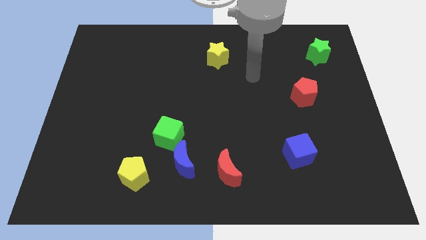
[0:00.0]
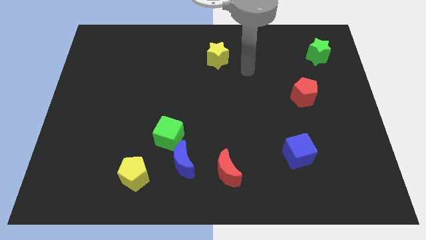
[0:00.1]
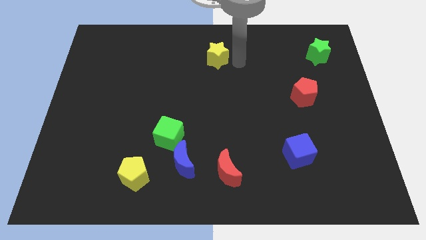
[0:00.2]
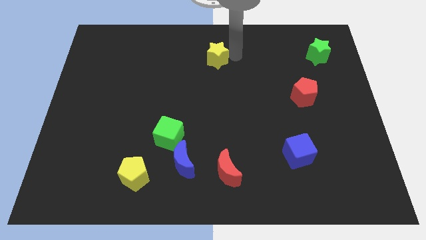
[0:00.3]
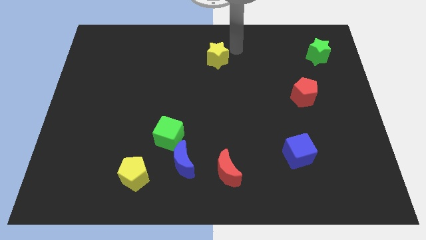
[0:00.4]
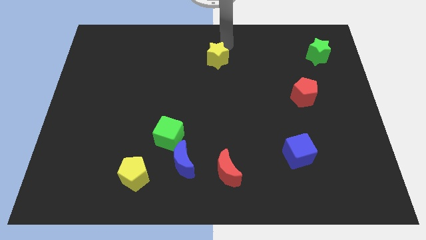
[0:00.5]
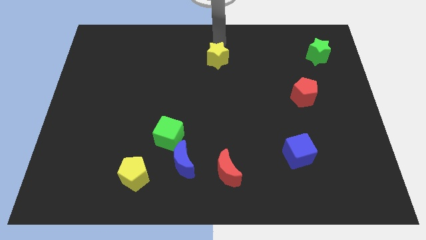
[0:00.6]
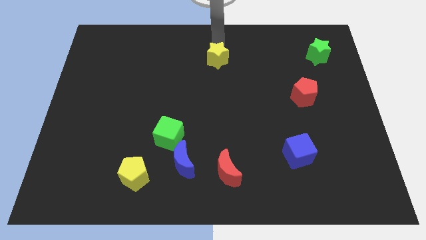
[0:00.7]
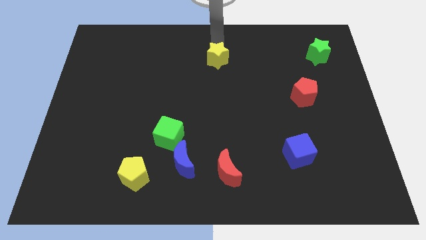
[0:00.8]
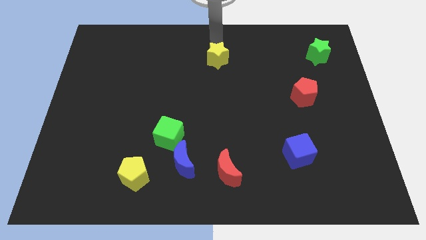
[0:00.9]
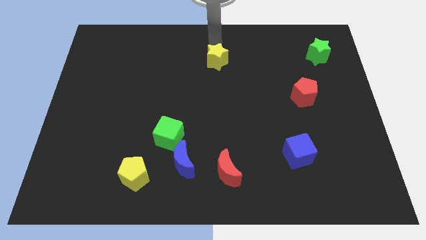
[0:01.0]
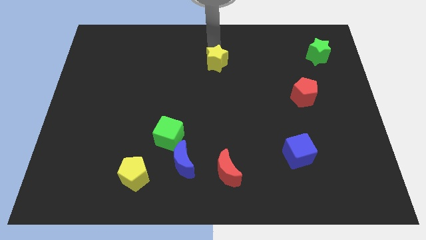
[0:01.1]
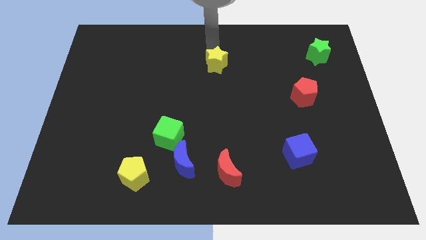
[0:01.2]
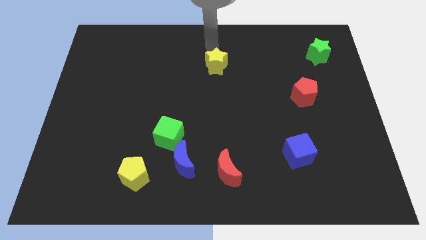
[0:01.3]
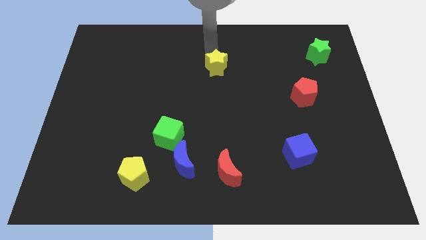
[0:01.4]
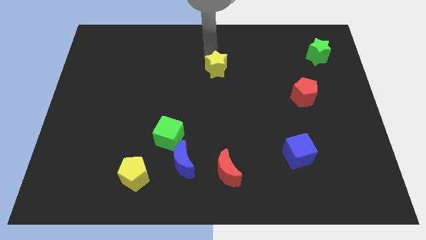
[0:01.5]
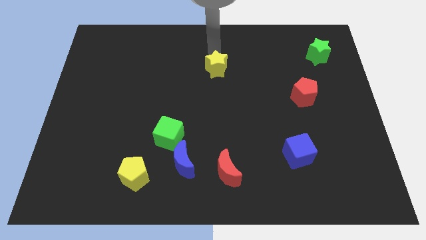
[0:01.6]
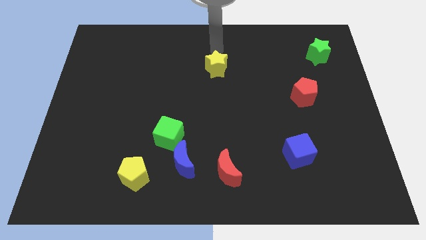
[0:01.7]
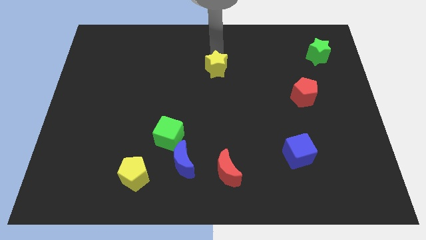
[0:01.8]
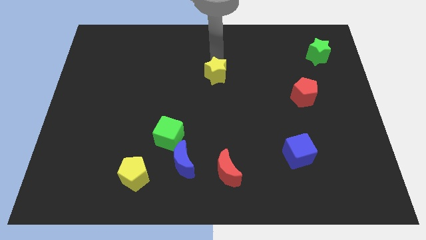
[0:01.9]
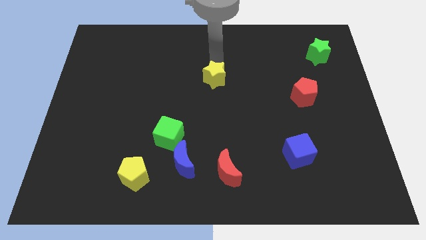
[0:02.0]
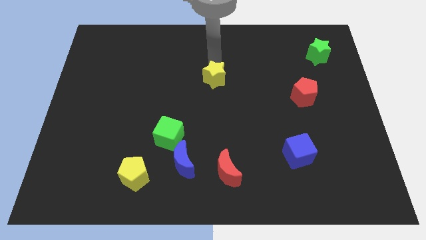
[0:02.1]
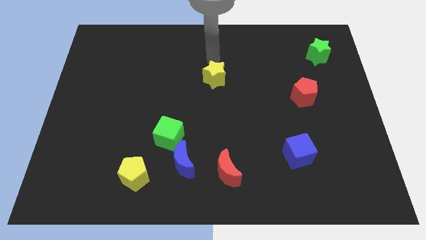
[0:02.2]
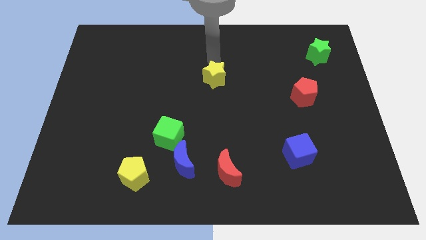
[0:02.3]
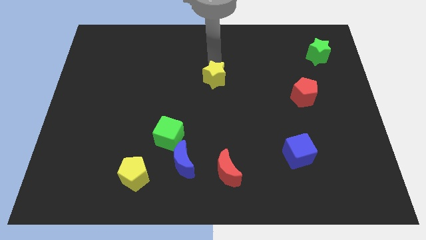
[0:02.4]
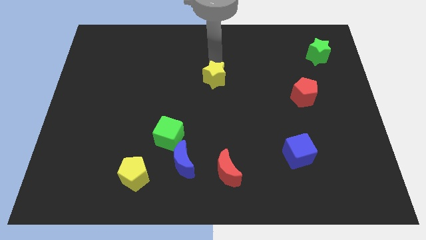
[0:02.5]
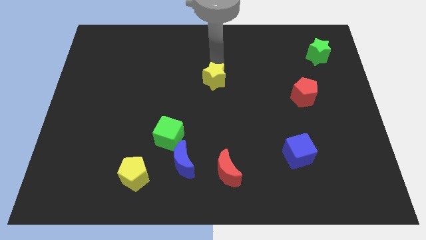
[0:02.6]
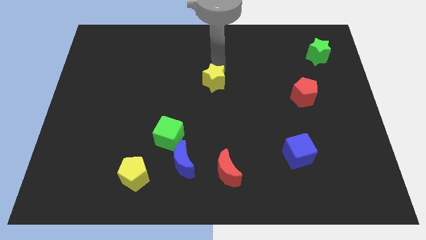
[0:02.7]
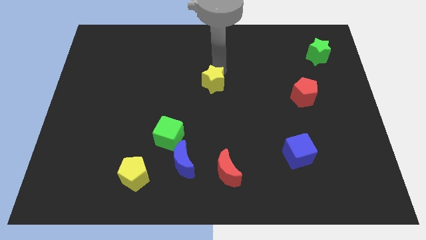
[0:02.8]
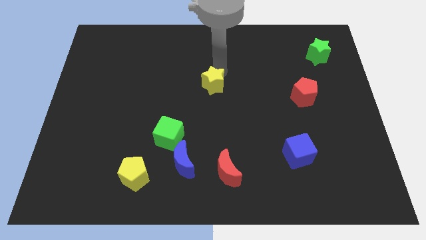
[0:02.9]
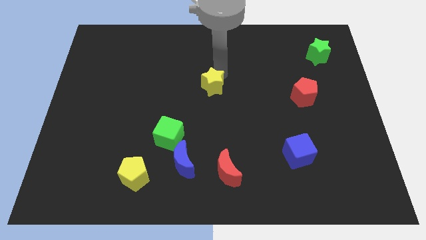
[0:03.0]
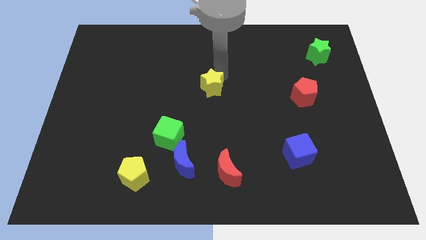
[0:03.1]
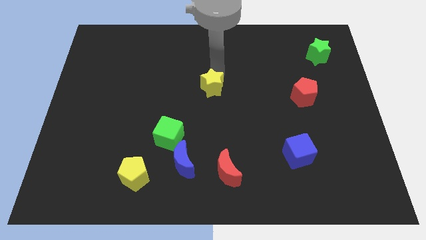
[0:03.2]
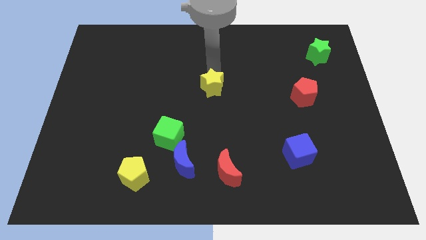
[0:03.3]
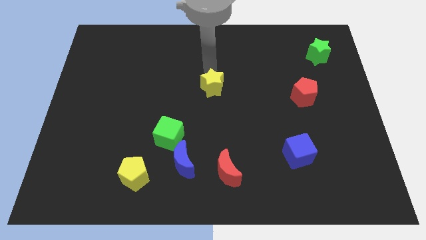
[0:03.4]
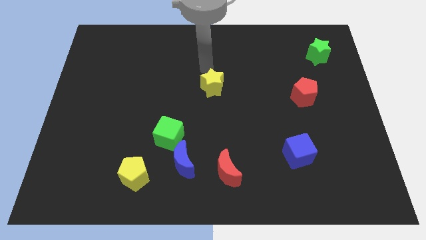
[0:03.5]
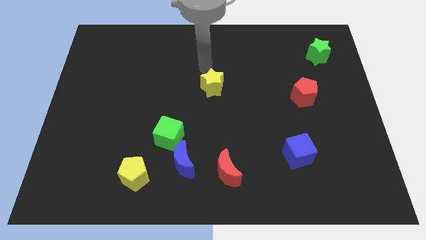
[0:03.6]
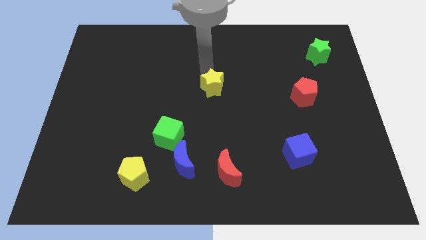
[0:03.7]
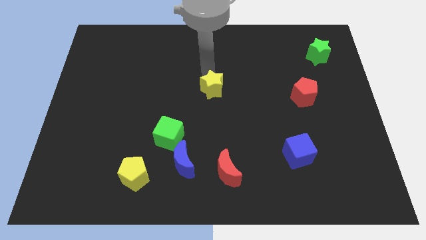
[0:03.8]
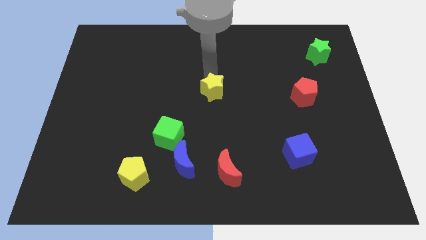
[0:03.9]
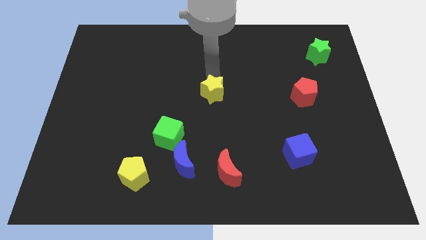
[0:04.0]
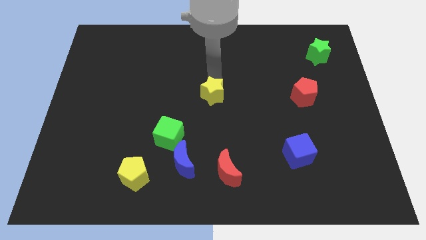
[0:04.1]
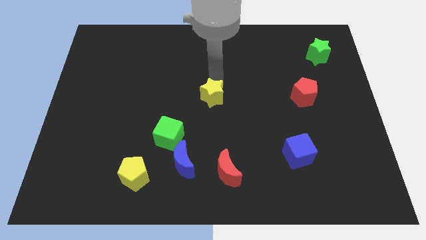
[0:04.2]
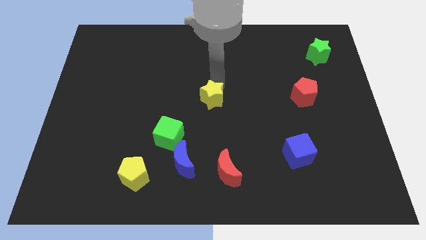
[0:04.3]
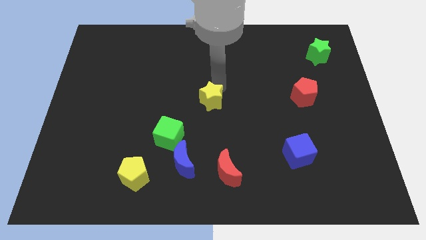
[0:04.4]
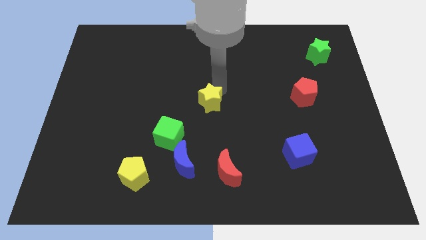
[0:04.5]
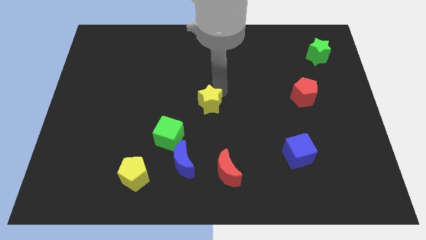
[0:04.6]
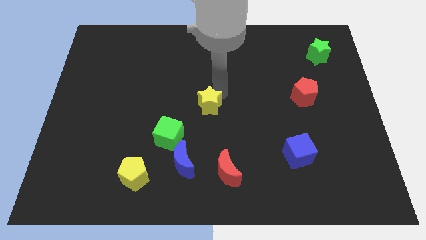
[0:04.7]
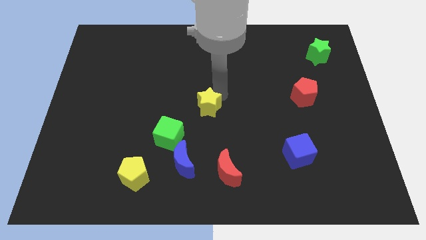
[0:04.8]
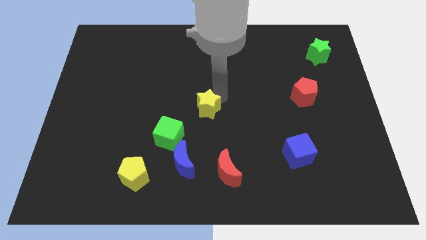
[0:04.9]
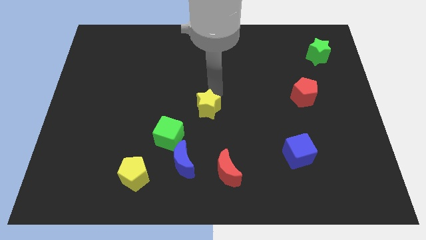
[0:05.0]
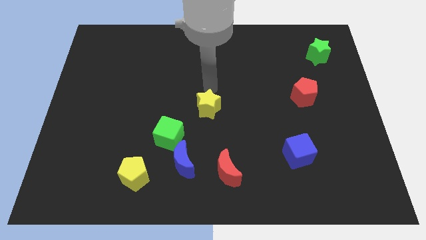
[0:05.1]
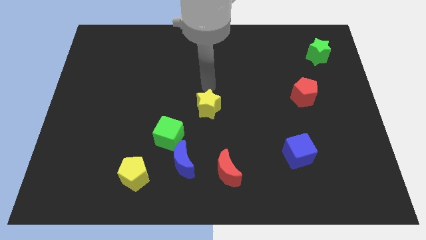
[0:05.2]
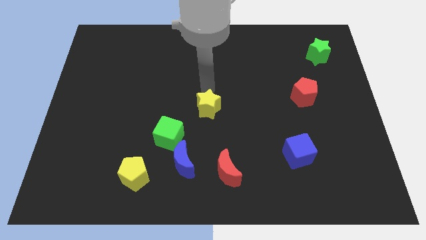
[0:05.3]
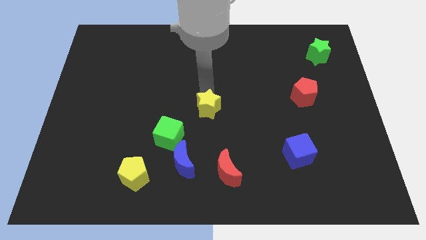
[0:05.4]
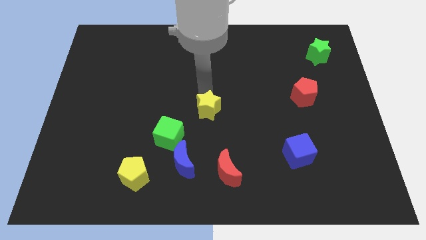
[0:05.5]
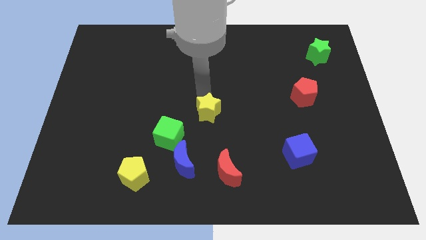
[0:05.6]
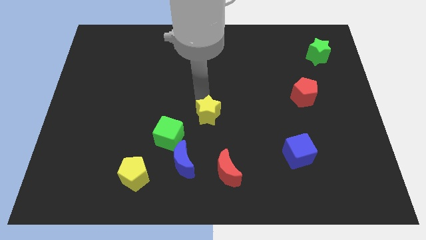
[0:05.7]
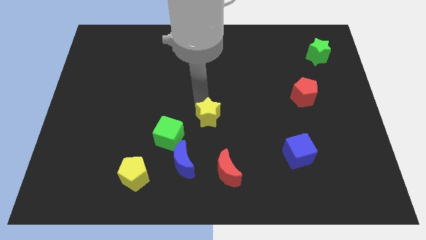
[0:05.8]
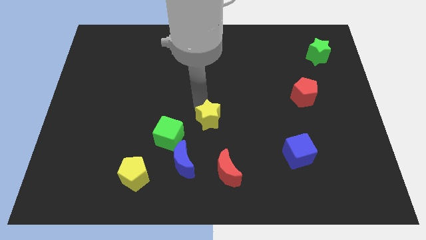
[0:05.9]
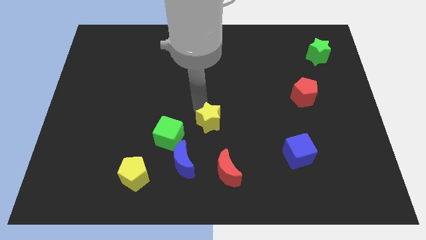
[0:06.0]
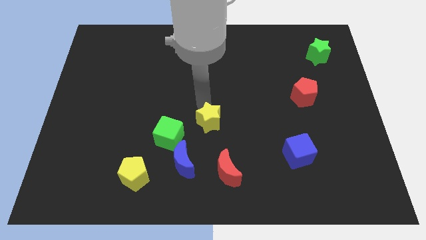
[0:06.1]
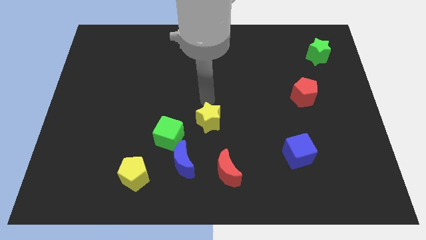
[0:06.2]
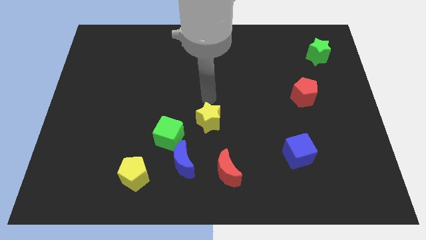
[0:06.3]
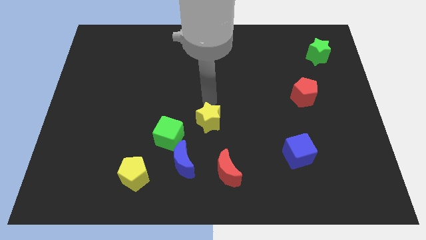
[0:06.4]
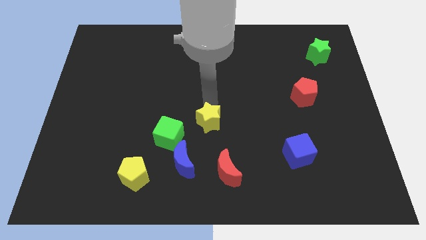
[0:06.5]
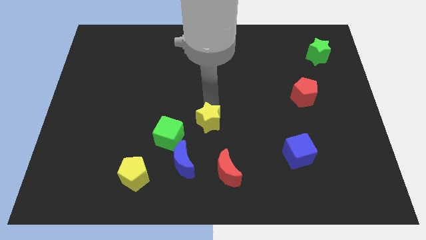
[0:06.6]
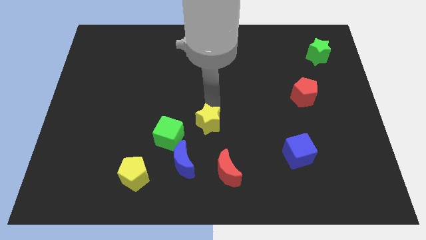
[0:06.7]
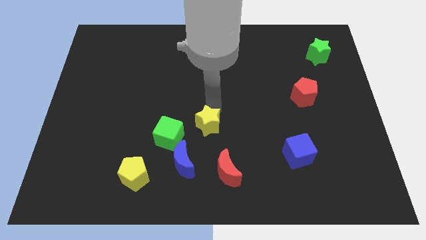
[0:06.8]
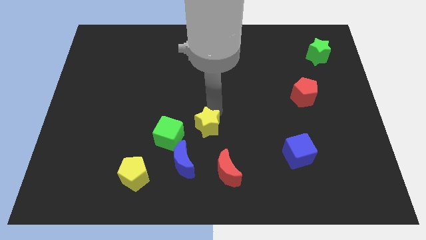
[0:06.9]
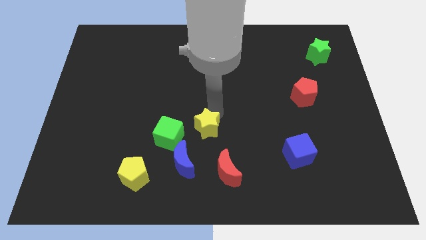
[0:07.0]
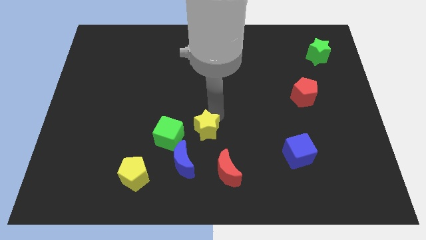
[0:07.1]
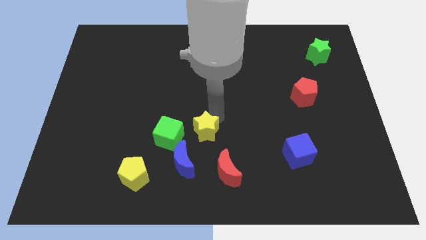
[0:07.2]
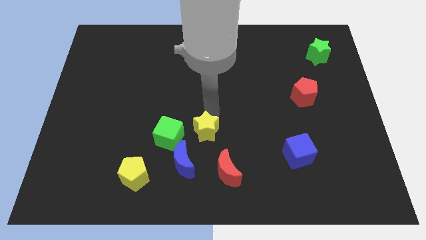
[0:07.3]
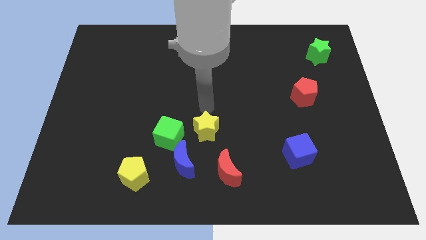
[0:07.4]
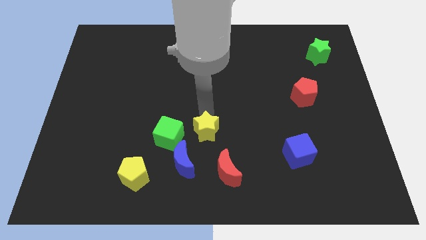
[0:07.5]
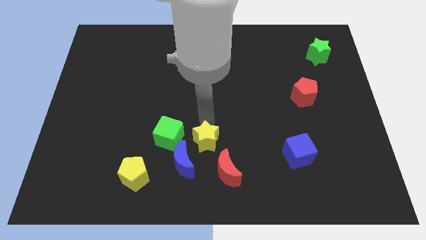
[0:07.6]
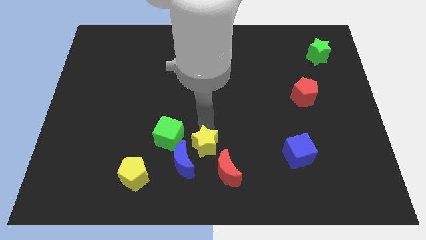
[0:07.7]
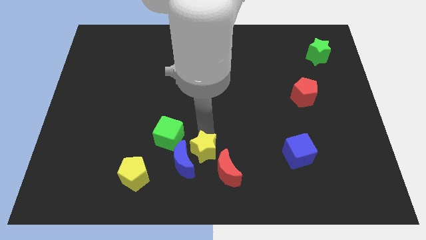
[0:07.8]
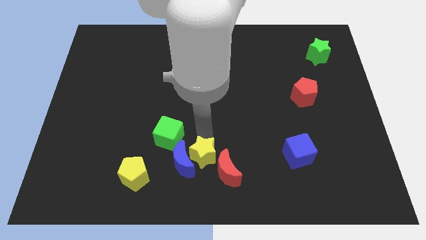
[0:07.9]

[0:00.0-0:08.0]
put the yellow star to the bottom
